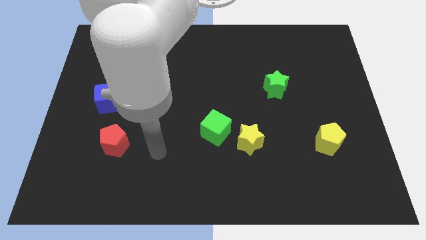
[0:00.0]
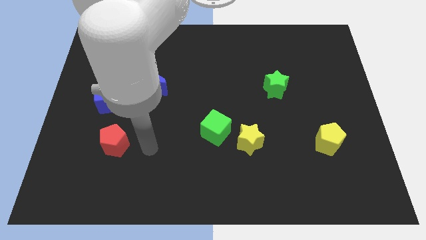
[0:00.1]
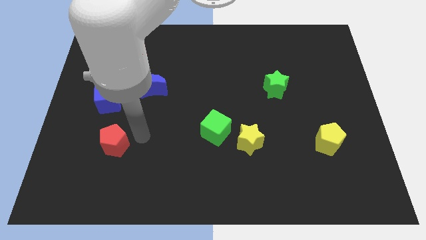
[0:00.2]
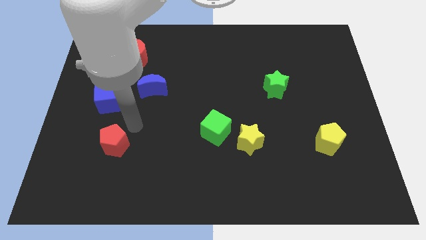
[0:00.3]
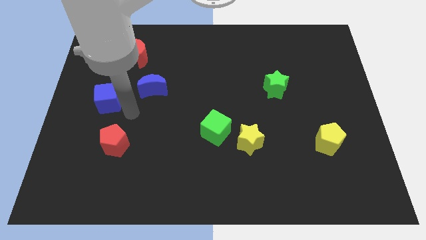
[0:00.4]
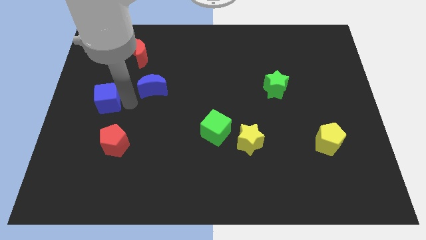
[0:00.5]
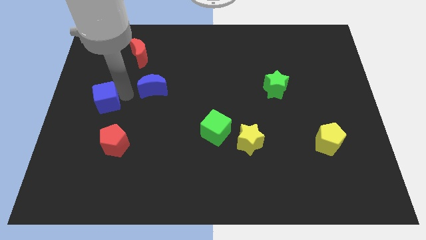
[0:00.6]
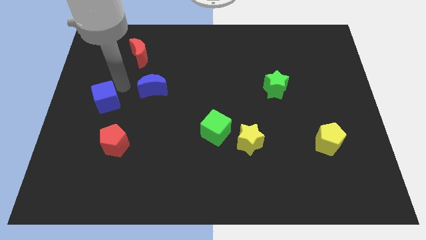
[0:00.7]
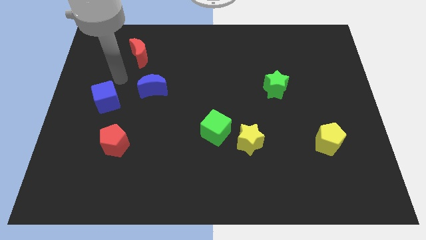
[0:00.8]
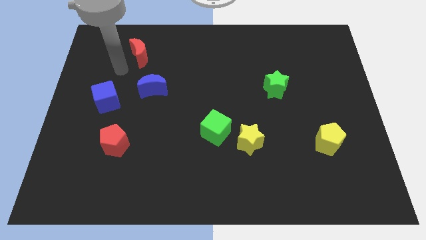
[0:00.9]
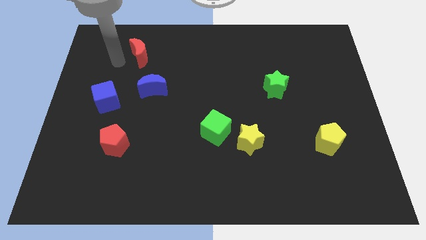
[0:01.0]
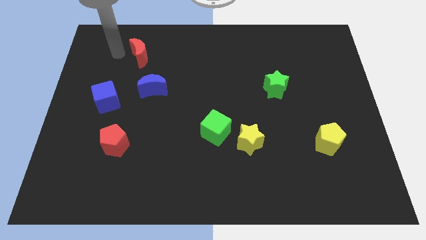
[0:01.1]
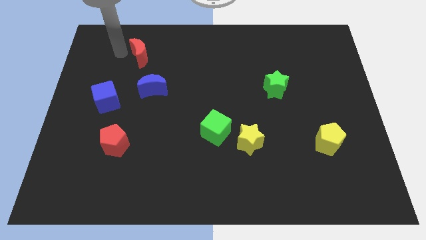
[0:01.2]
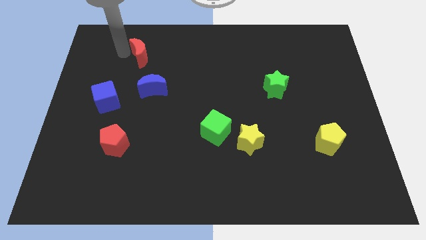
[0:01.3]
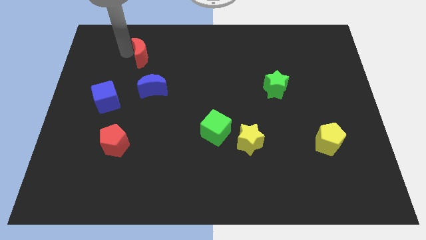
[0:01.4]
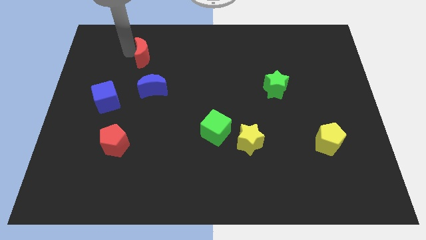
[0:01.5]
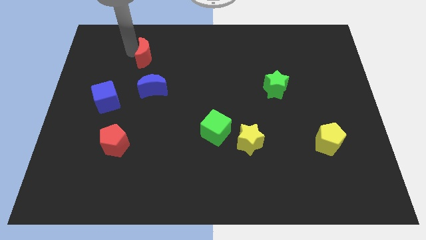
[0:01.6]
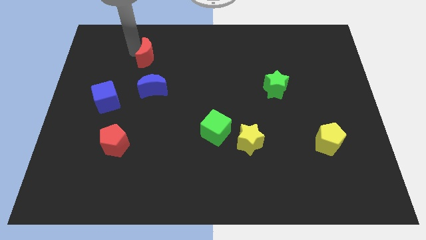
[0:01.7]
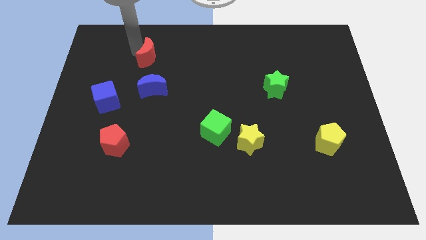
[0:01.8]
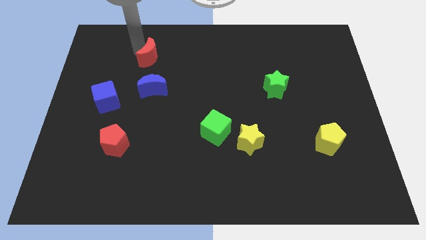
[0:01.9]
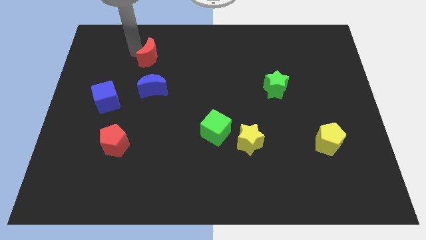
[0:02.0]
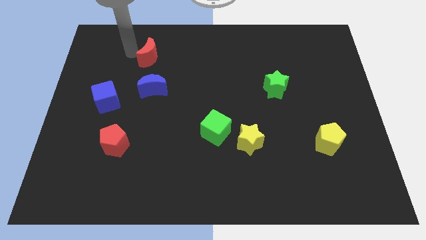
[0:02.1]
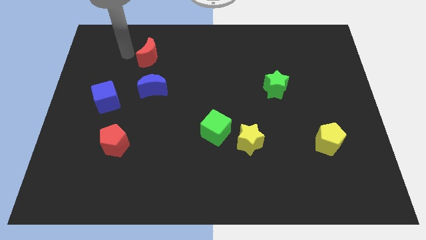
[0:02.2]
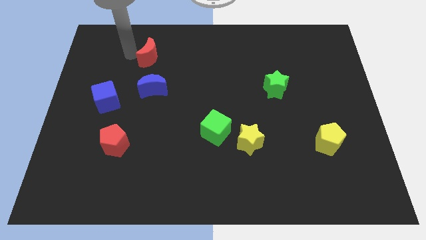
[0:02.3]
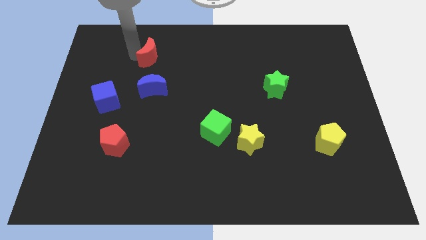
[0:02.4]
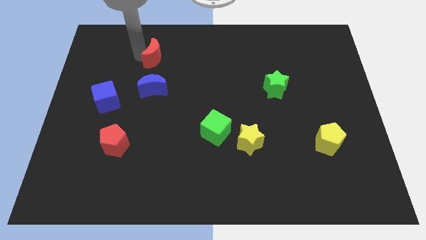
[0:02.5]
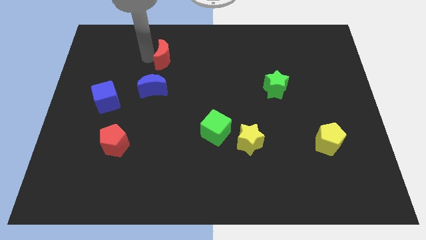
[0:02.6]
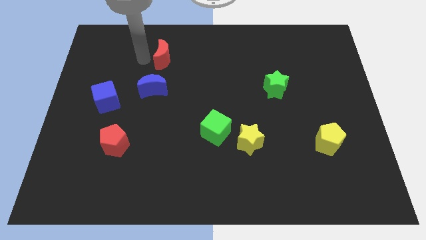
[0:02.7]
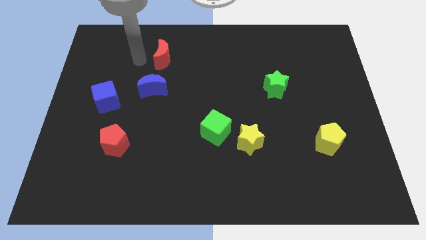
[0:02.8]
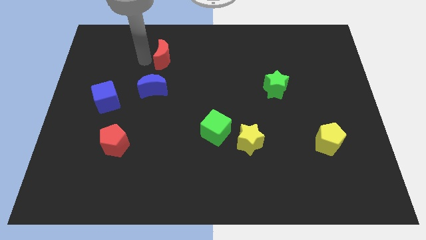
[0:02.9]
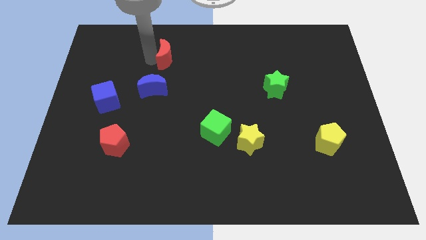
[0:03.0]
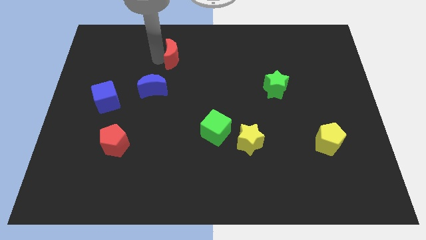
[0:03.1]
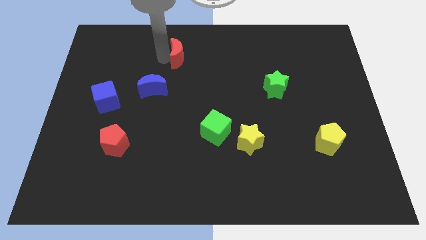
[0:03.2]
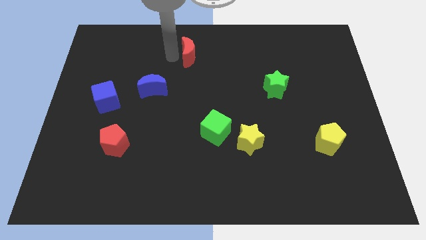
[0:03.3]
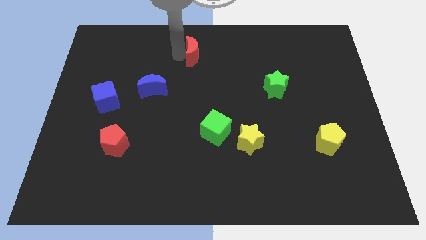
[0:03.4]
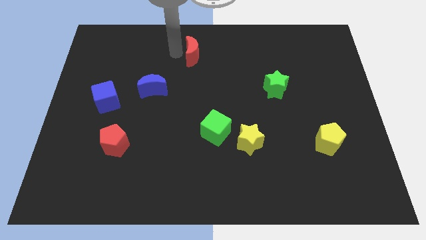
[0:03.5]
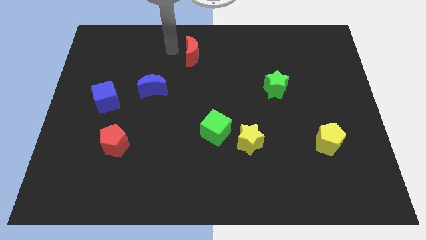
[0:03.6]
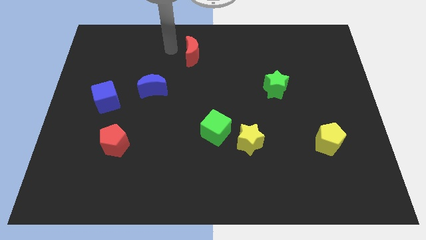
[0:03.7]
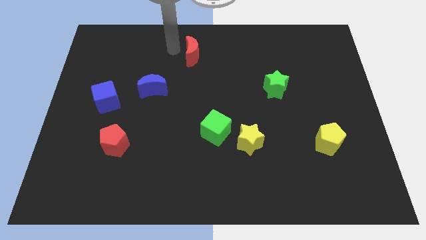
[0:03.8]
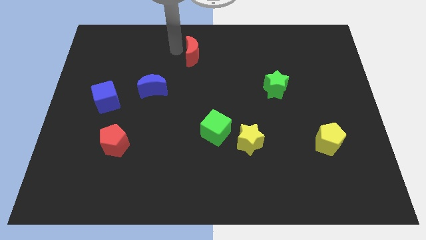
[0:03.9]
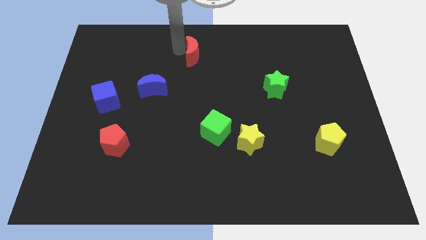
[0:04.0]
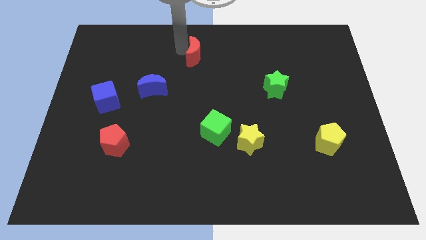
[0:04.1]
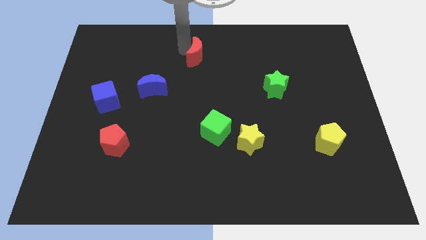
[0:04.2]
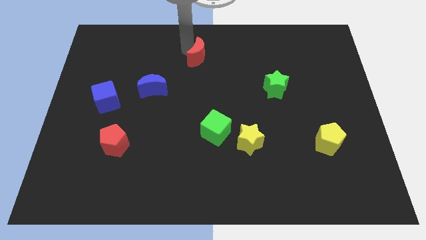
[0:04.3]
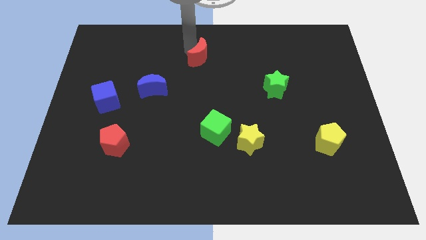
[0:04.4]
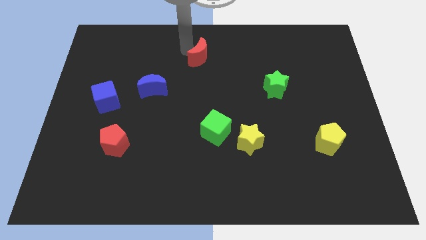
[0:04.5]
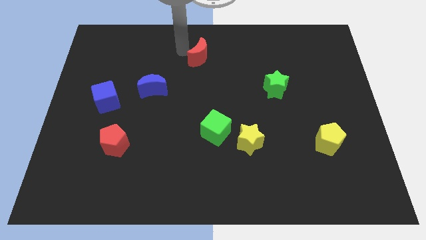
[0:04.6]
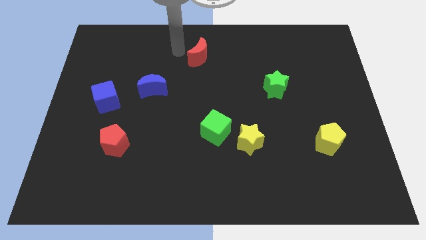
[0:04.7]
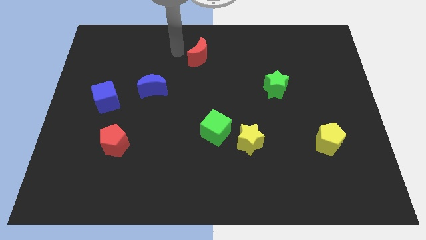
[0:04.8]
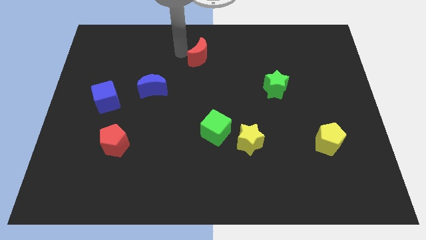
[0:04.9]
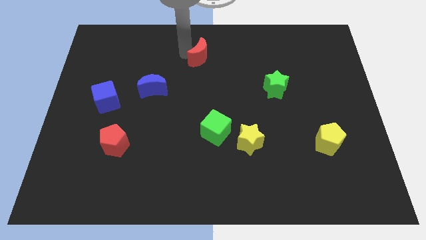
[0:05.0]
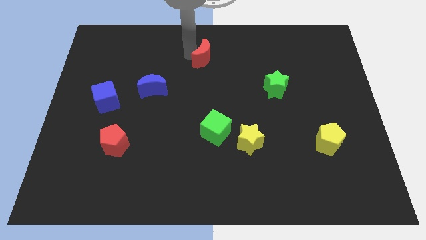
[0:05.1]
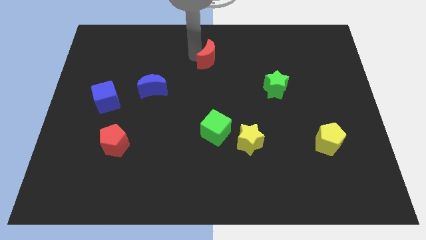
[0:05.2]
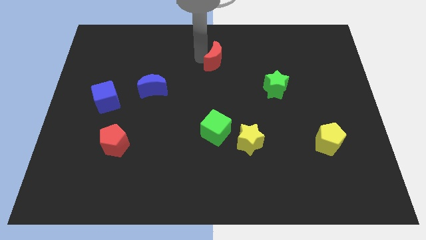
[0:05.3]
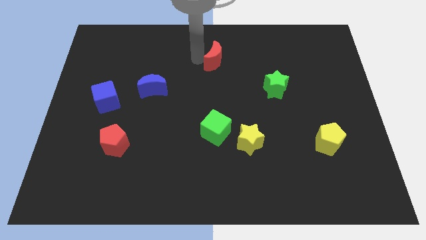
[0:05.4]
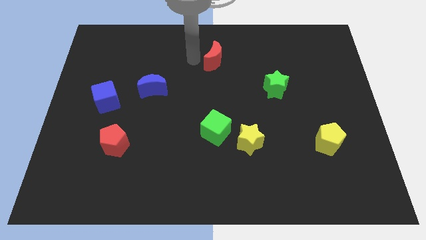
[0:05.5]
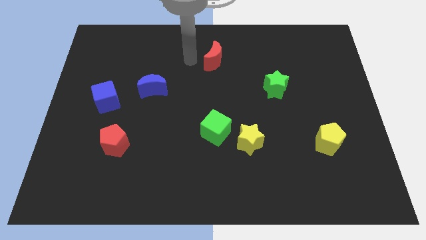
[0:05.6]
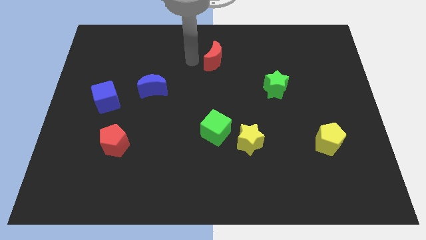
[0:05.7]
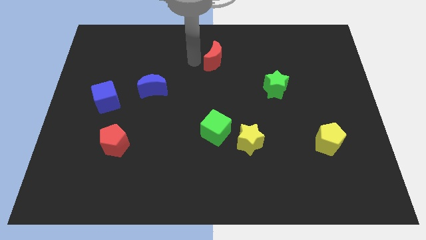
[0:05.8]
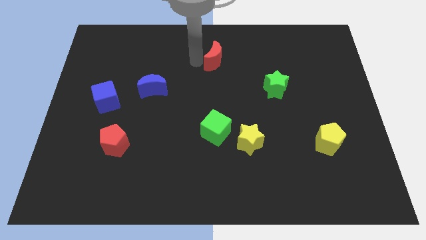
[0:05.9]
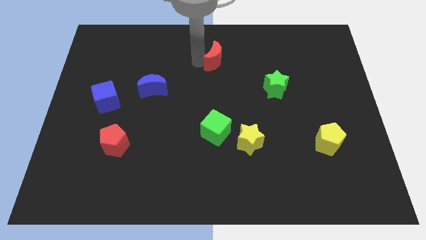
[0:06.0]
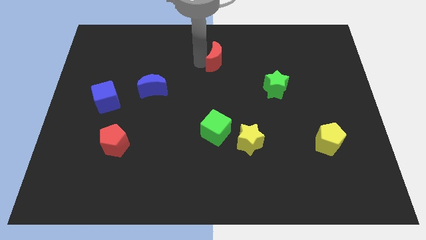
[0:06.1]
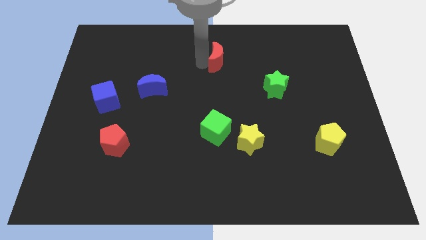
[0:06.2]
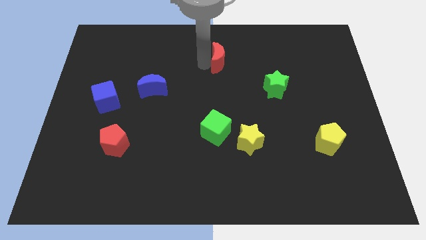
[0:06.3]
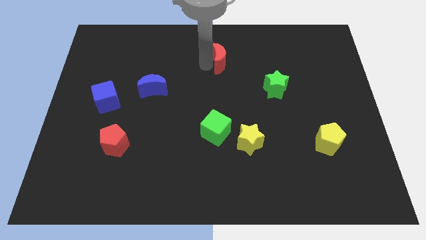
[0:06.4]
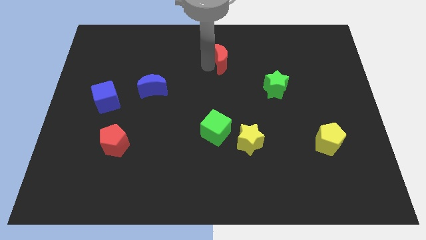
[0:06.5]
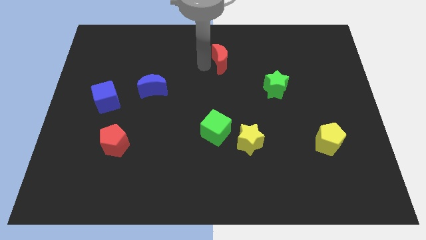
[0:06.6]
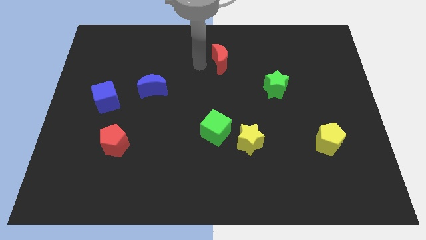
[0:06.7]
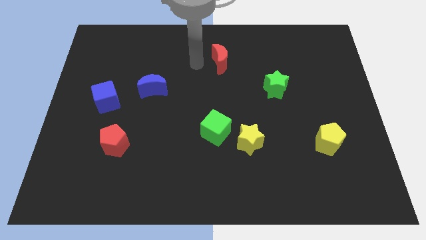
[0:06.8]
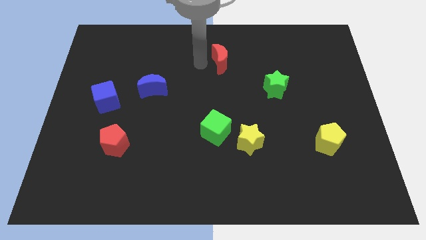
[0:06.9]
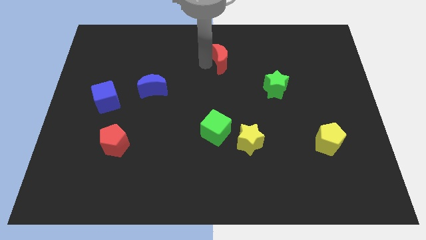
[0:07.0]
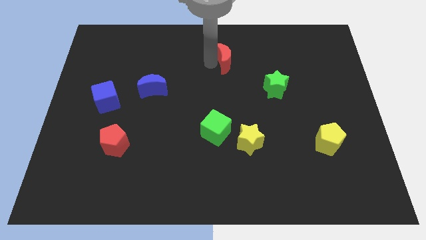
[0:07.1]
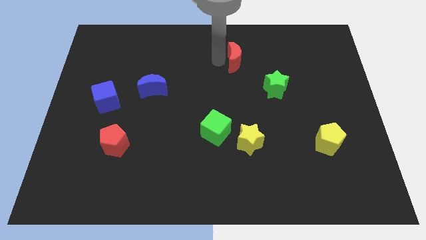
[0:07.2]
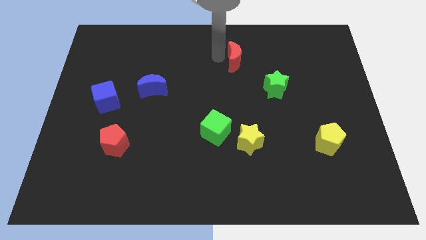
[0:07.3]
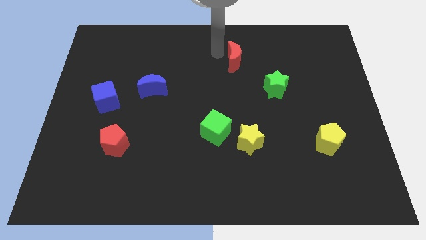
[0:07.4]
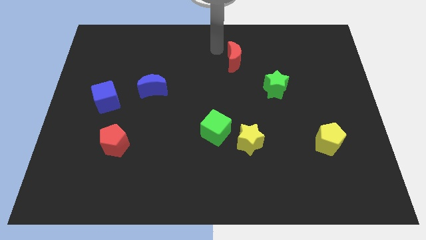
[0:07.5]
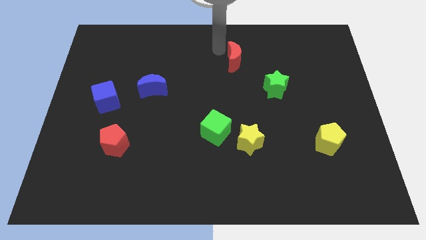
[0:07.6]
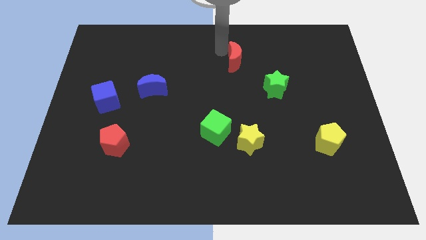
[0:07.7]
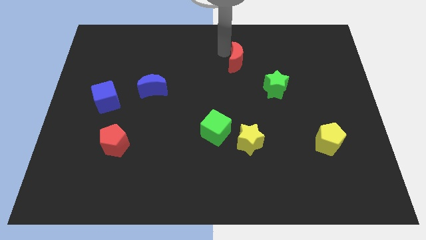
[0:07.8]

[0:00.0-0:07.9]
put the red moon to the top left side of the green star

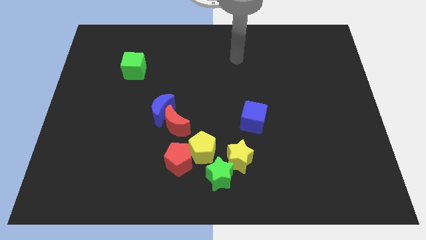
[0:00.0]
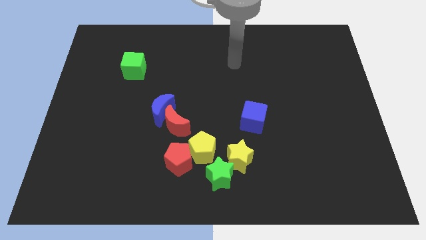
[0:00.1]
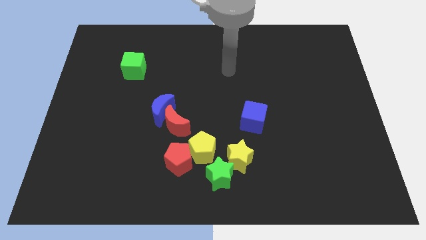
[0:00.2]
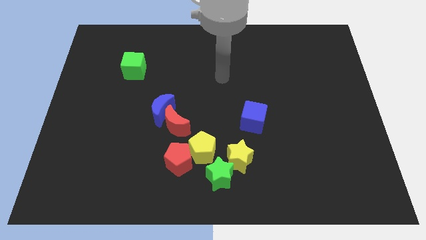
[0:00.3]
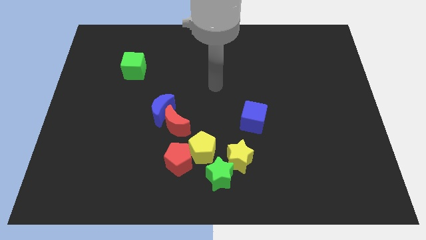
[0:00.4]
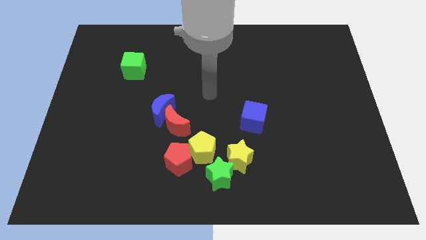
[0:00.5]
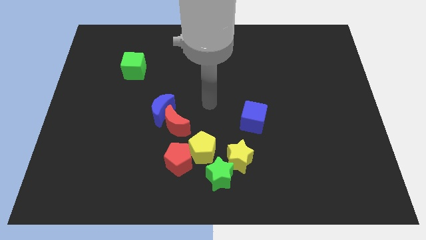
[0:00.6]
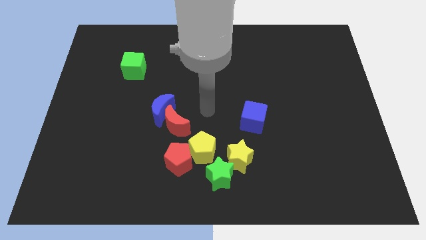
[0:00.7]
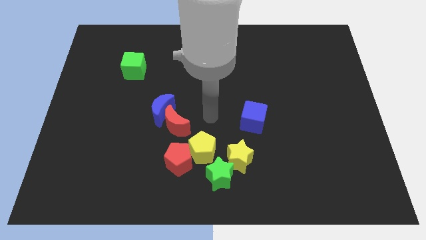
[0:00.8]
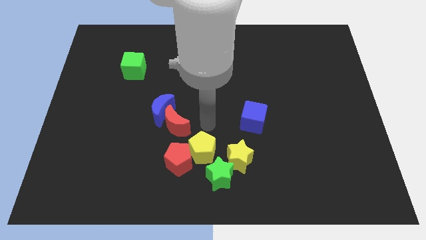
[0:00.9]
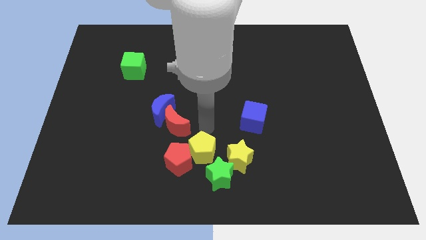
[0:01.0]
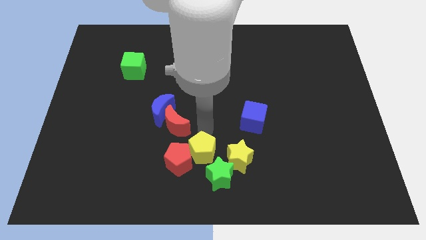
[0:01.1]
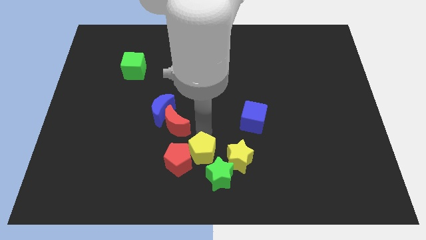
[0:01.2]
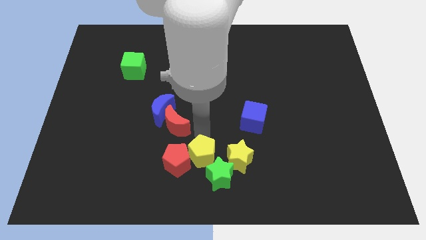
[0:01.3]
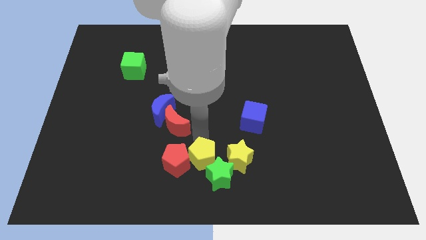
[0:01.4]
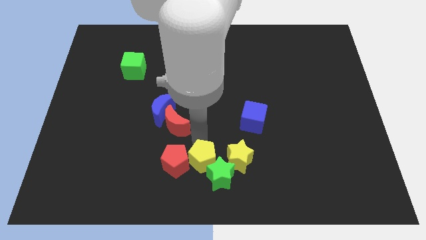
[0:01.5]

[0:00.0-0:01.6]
move the yellow pentagon to the left side of the green star
